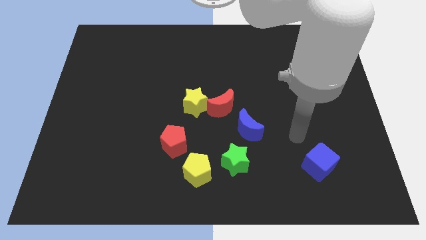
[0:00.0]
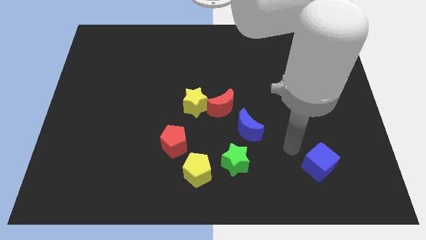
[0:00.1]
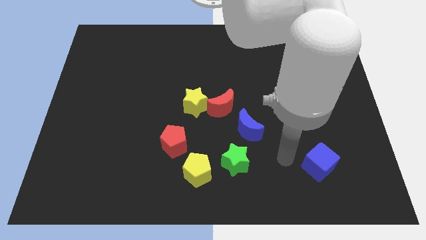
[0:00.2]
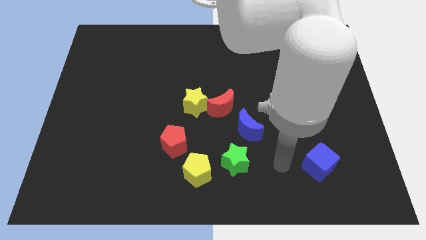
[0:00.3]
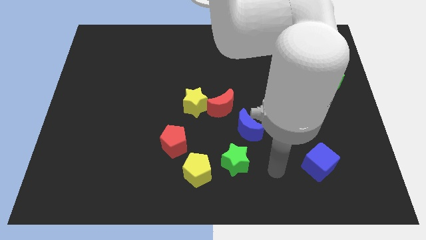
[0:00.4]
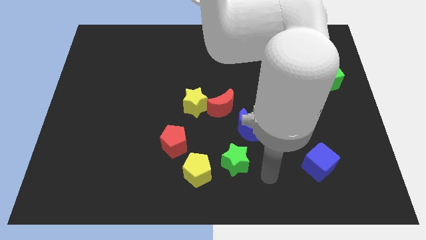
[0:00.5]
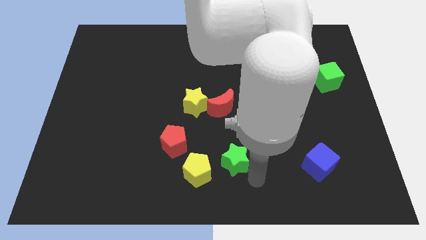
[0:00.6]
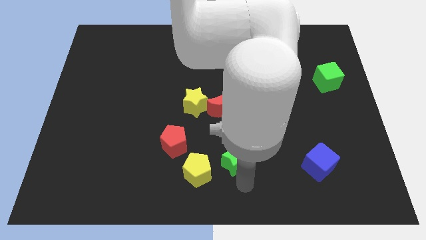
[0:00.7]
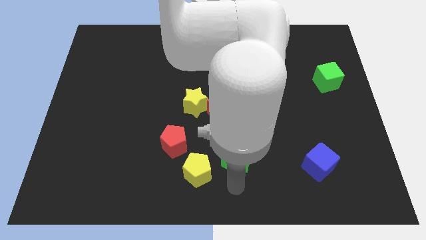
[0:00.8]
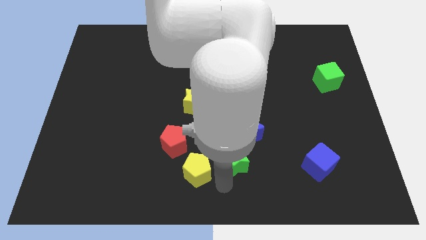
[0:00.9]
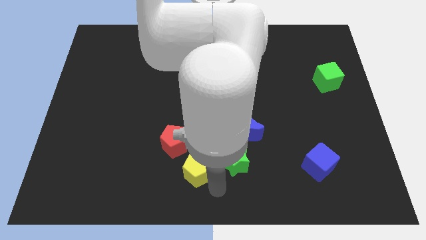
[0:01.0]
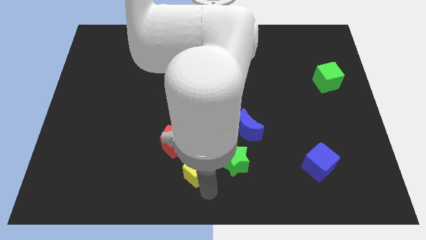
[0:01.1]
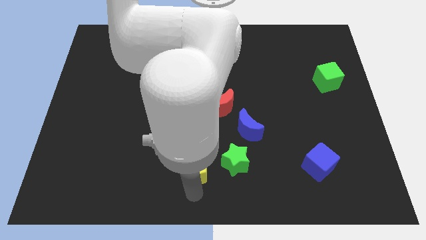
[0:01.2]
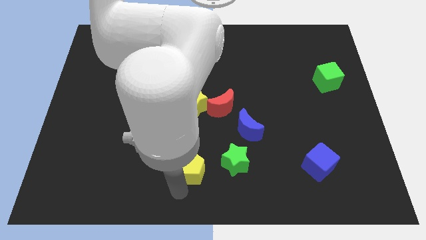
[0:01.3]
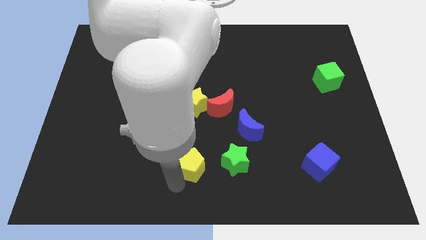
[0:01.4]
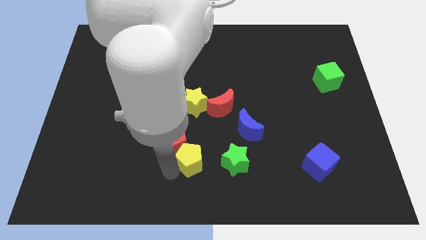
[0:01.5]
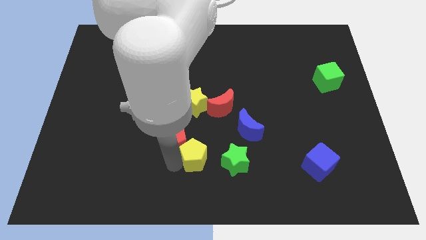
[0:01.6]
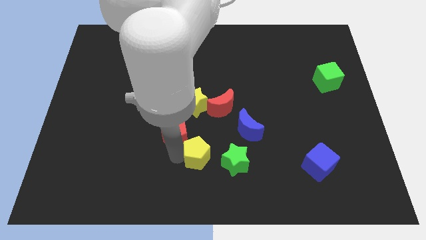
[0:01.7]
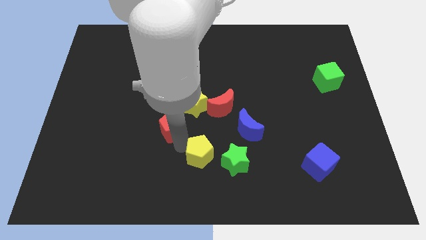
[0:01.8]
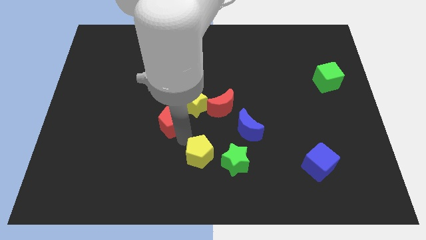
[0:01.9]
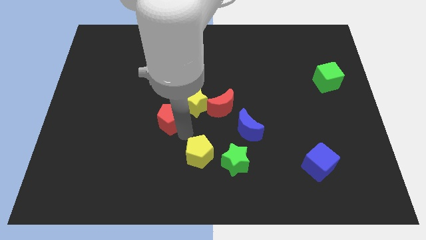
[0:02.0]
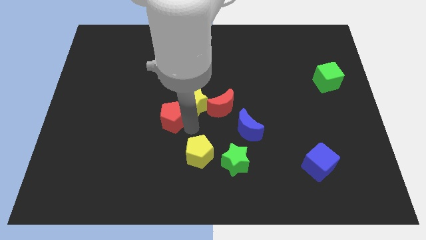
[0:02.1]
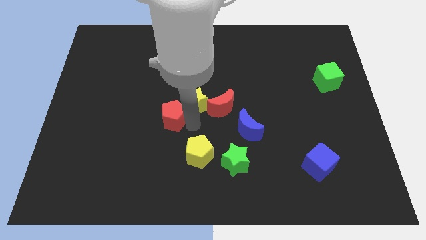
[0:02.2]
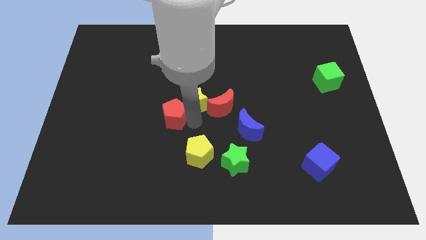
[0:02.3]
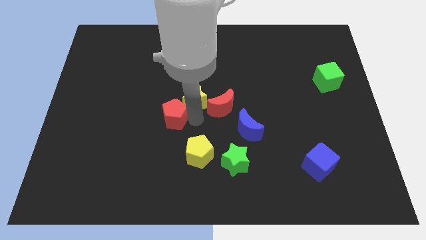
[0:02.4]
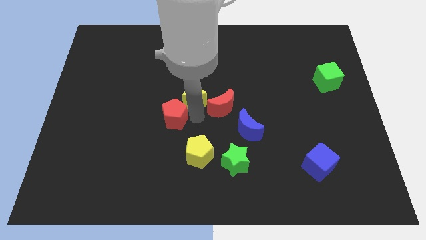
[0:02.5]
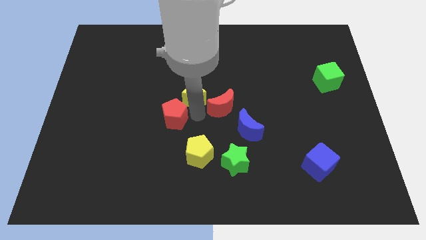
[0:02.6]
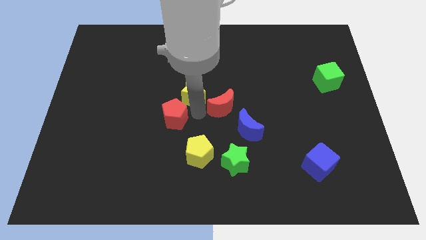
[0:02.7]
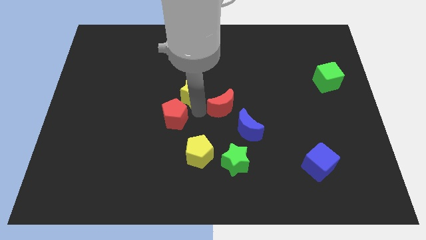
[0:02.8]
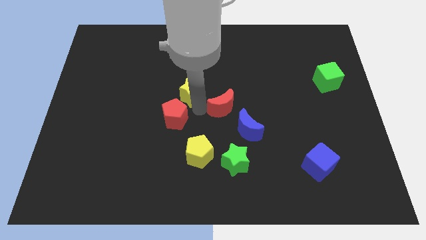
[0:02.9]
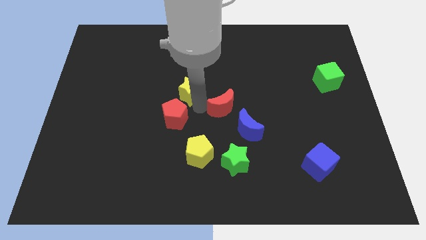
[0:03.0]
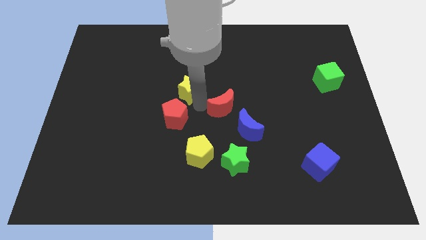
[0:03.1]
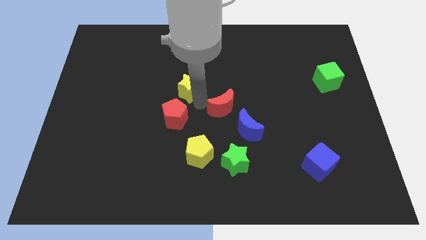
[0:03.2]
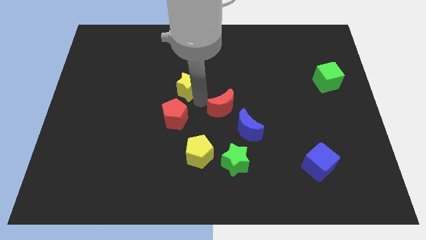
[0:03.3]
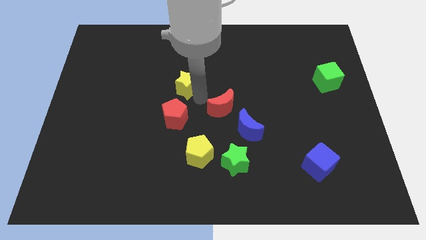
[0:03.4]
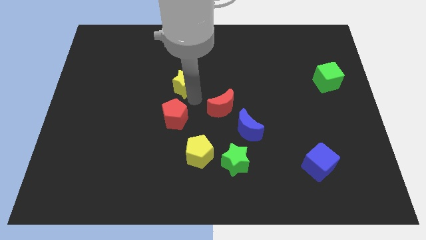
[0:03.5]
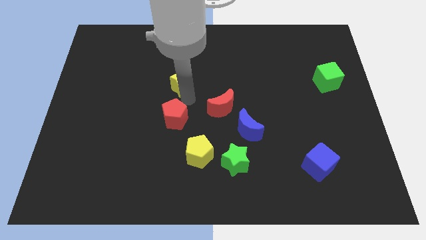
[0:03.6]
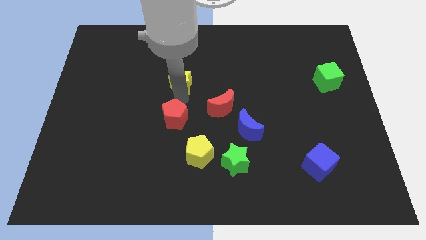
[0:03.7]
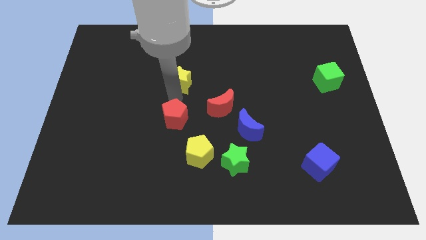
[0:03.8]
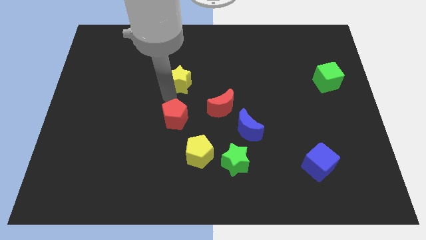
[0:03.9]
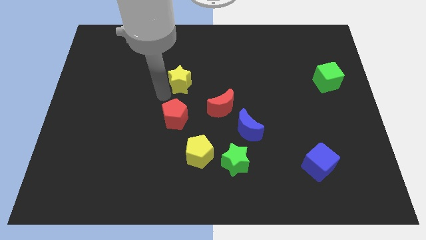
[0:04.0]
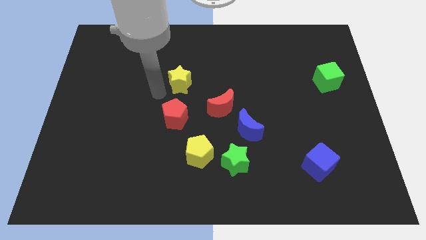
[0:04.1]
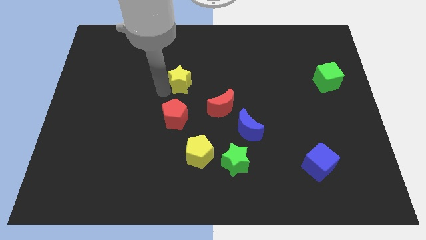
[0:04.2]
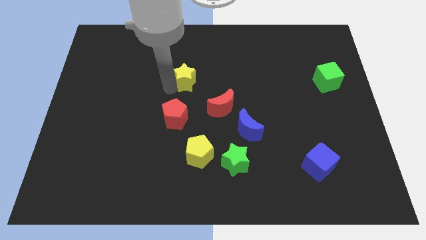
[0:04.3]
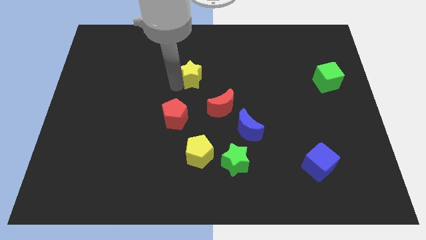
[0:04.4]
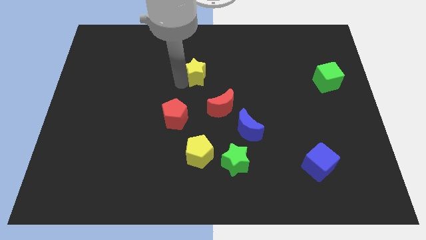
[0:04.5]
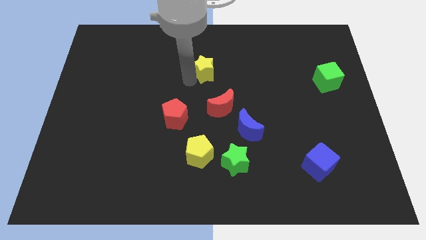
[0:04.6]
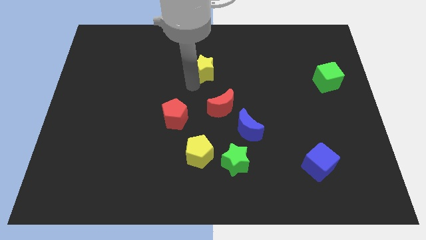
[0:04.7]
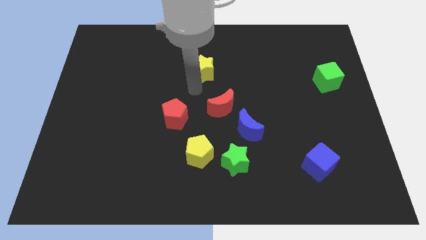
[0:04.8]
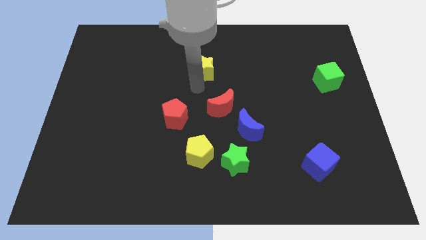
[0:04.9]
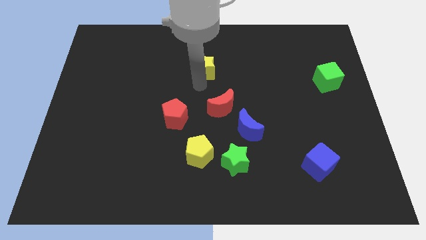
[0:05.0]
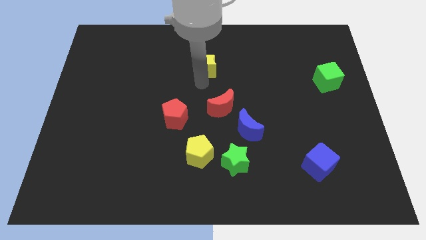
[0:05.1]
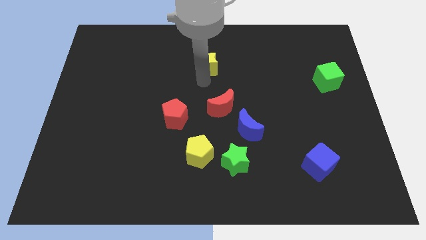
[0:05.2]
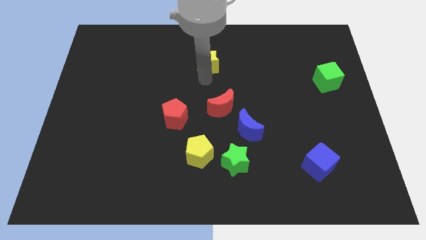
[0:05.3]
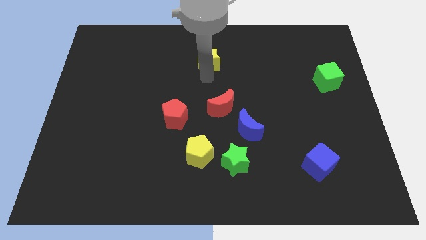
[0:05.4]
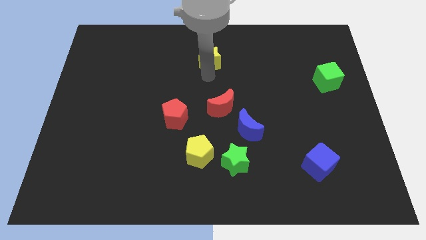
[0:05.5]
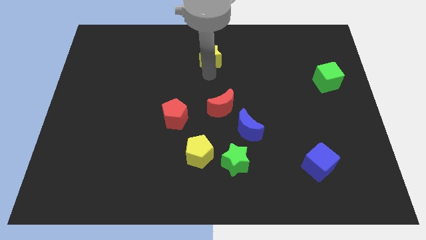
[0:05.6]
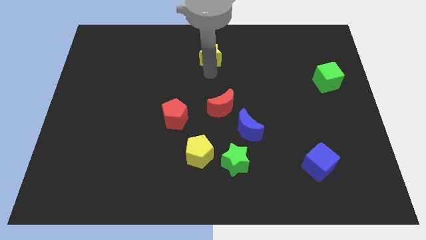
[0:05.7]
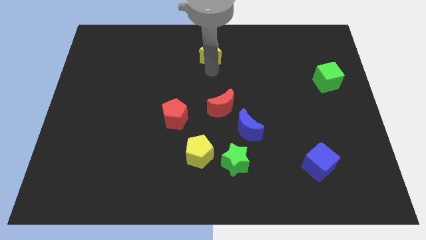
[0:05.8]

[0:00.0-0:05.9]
push the yellow star to the top side

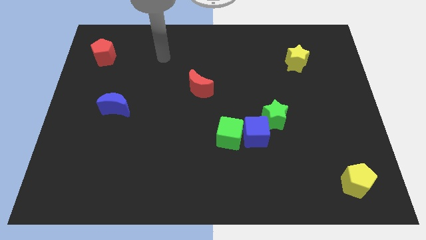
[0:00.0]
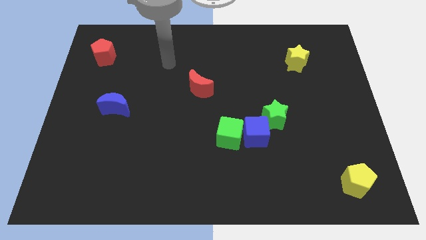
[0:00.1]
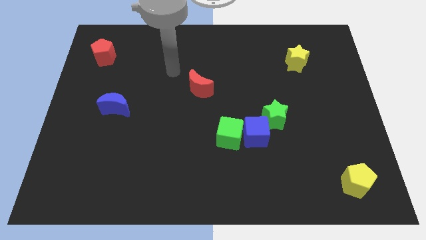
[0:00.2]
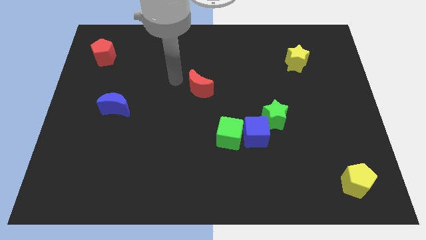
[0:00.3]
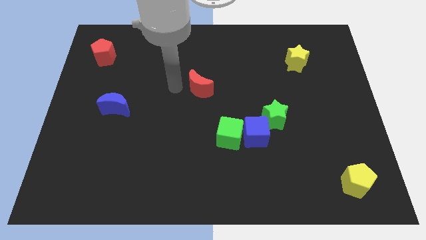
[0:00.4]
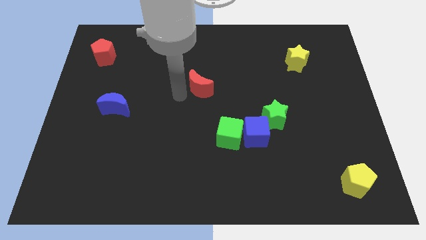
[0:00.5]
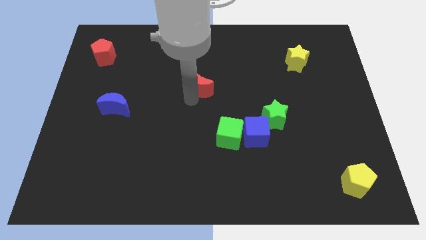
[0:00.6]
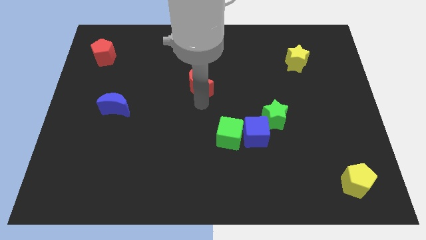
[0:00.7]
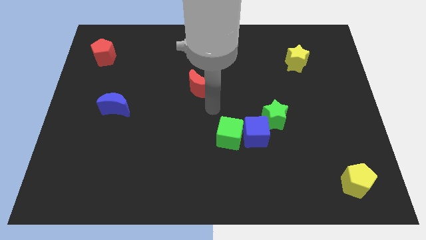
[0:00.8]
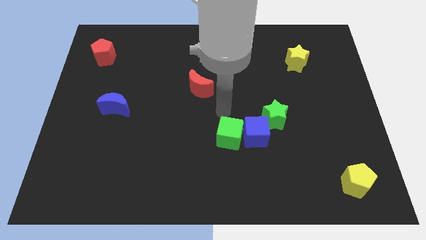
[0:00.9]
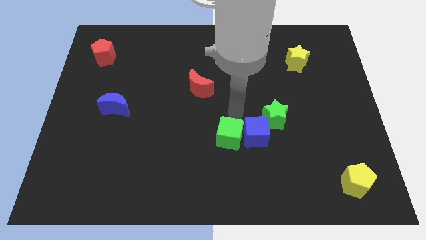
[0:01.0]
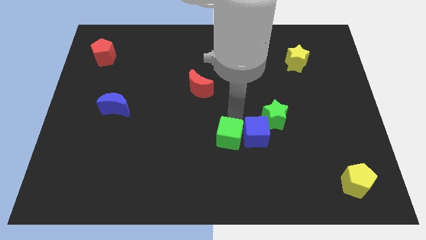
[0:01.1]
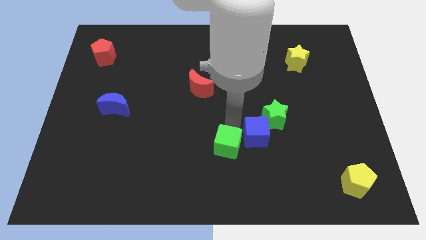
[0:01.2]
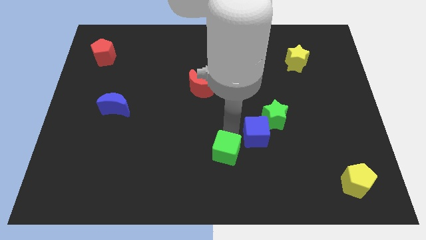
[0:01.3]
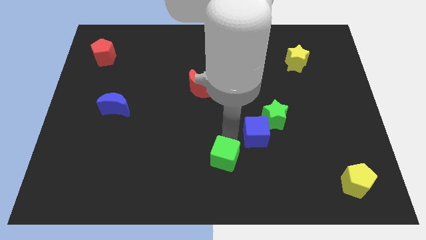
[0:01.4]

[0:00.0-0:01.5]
push the green cube to the bottom
